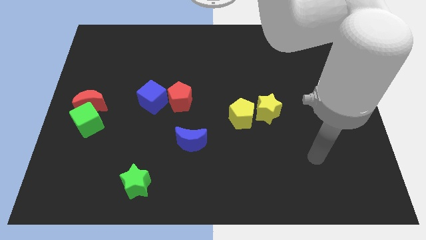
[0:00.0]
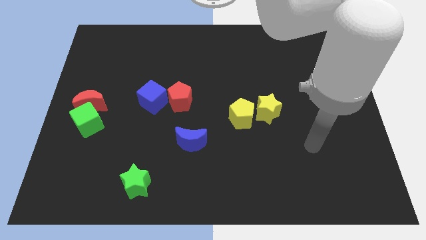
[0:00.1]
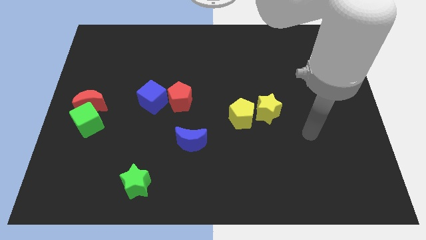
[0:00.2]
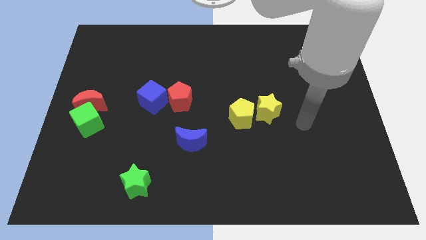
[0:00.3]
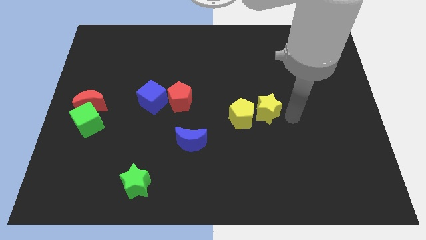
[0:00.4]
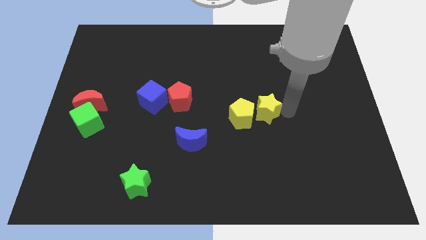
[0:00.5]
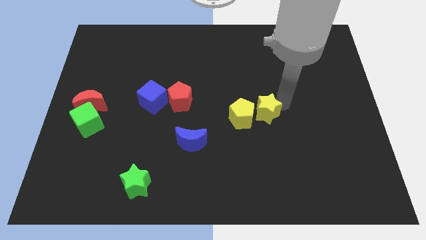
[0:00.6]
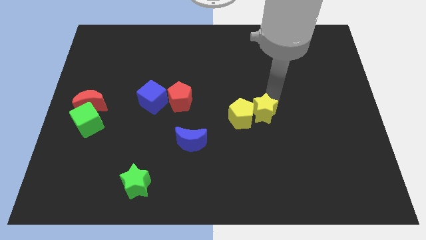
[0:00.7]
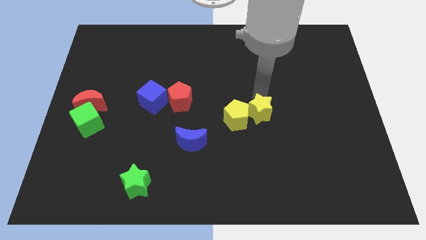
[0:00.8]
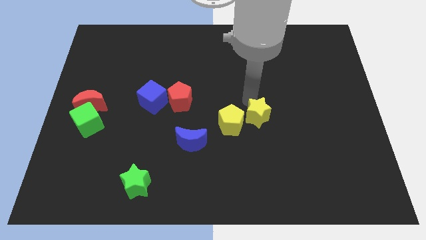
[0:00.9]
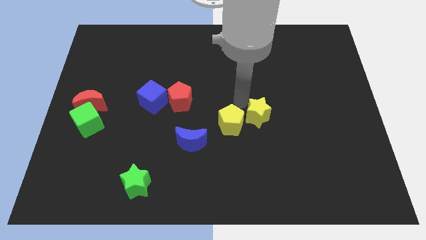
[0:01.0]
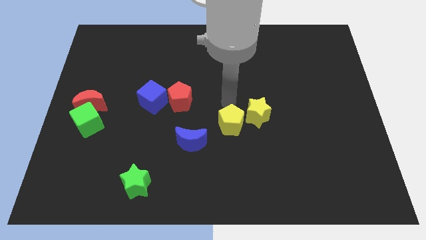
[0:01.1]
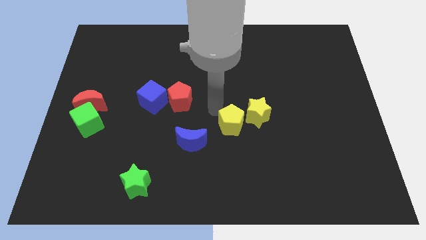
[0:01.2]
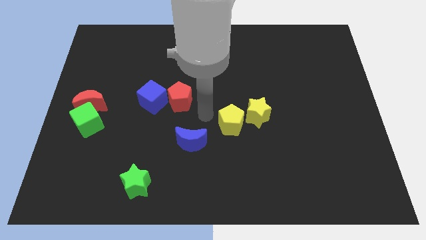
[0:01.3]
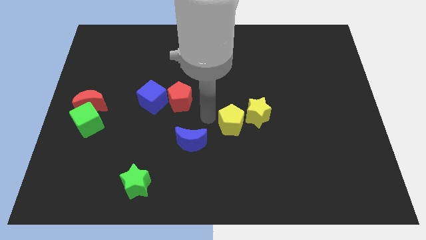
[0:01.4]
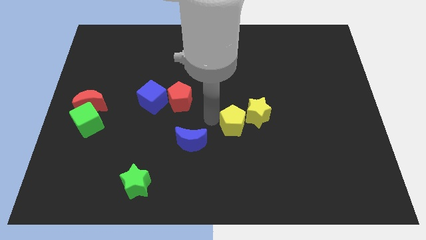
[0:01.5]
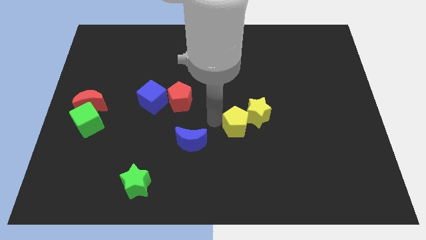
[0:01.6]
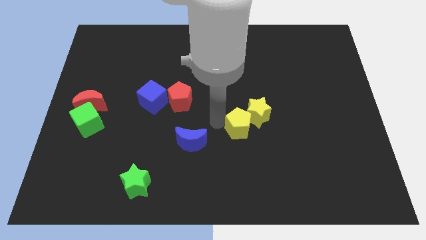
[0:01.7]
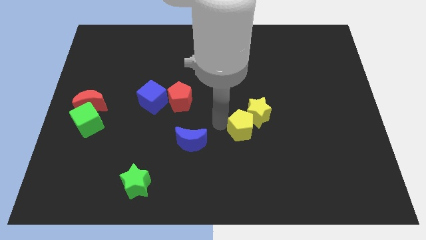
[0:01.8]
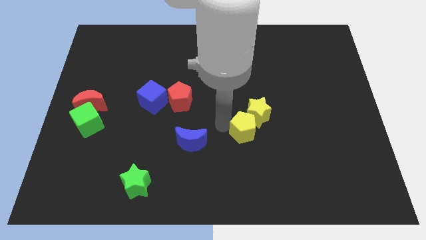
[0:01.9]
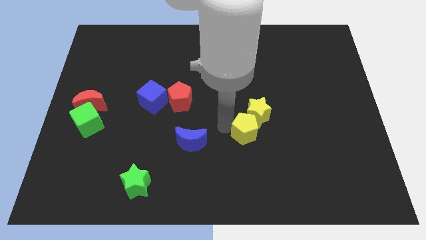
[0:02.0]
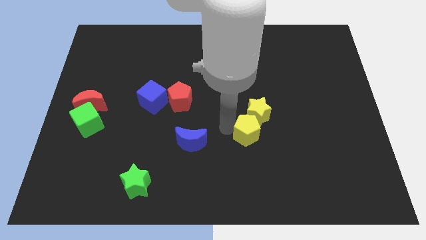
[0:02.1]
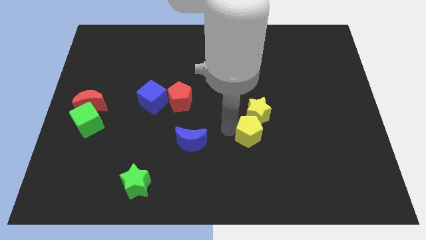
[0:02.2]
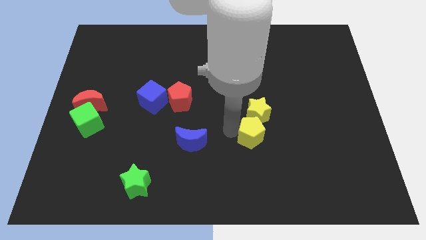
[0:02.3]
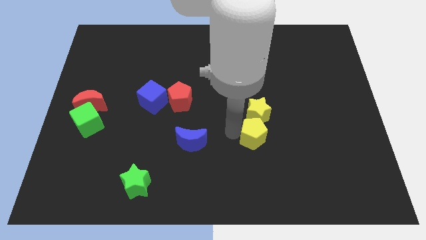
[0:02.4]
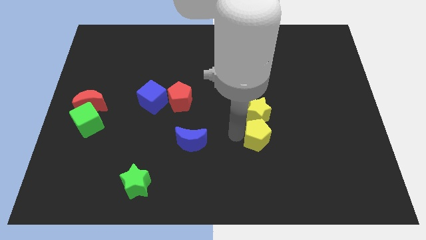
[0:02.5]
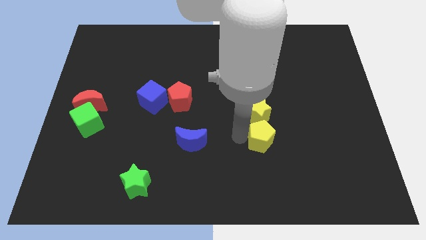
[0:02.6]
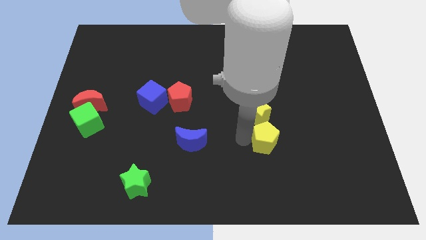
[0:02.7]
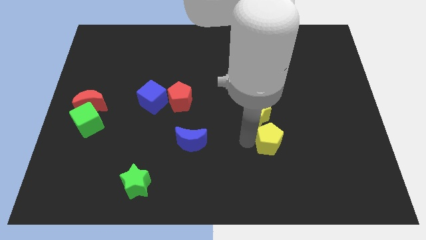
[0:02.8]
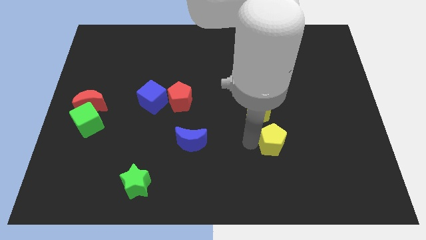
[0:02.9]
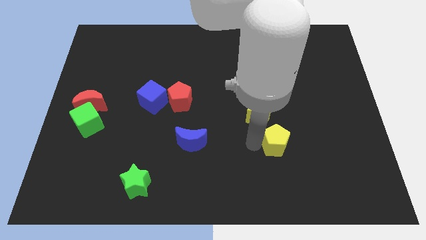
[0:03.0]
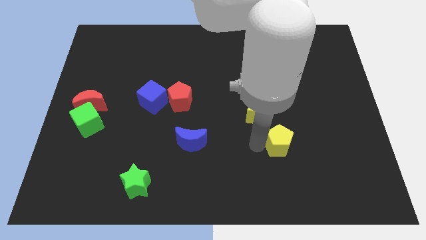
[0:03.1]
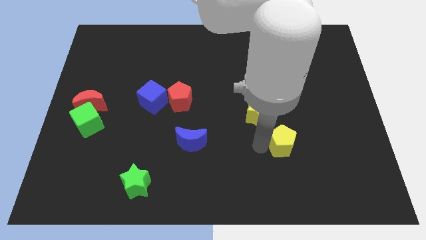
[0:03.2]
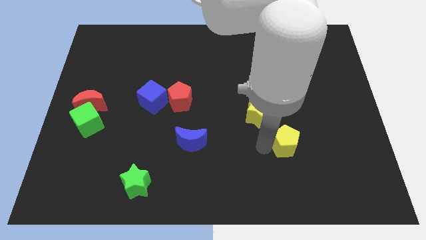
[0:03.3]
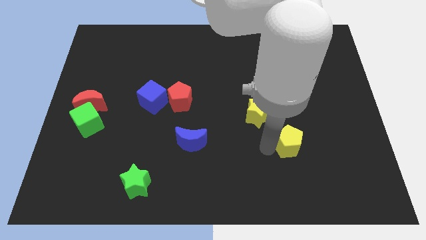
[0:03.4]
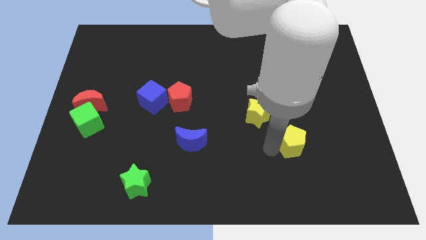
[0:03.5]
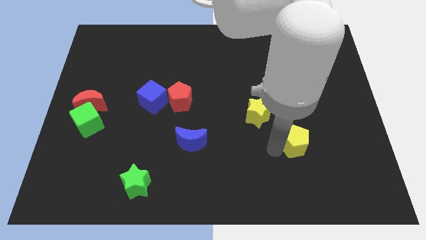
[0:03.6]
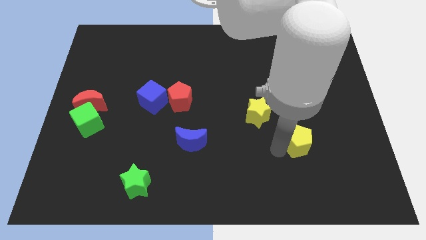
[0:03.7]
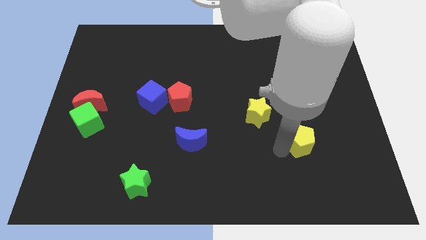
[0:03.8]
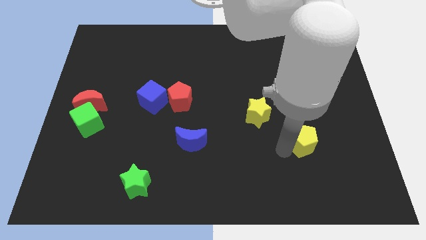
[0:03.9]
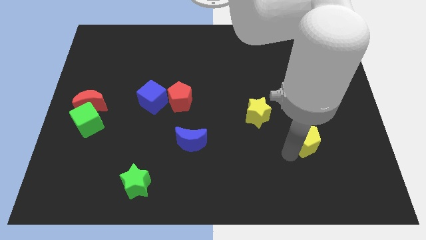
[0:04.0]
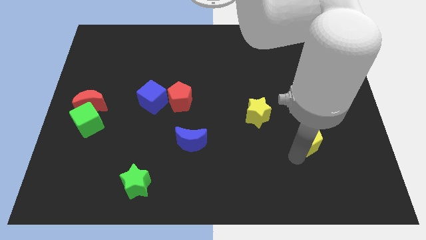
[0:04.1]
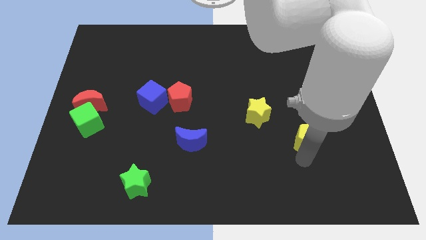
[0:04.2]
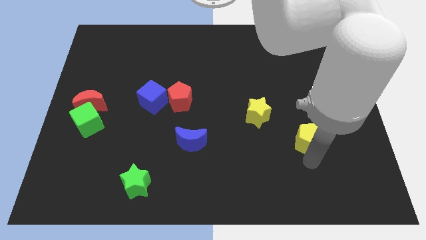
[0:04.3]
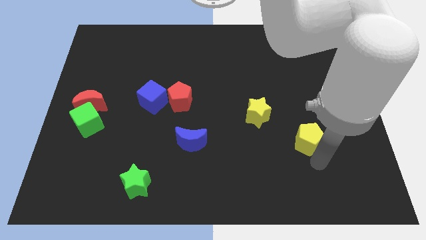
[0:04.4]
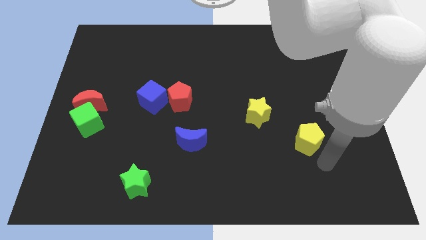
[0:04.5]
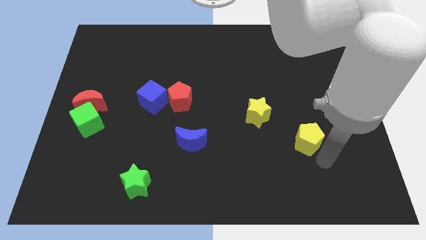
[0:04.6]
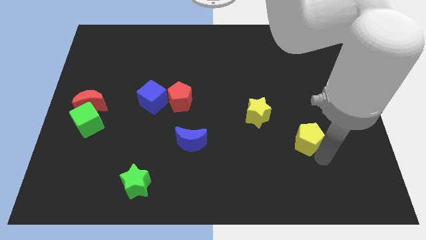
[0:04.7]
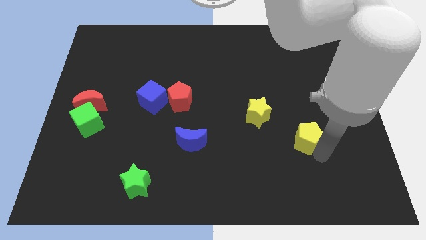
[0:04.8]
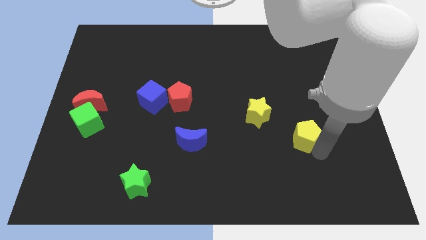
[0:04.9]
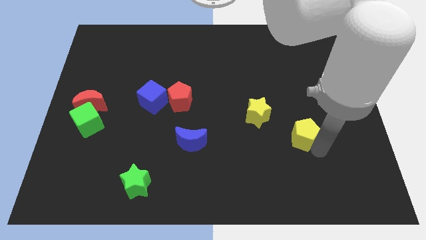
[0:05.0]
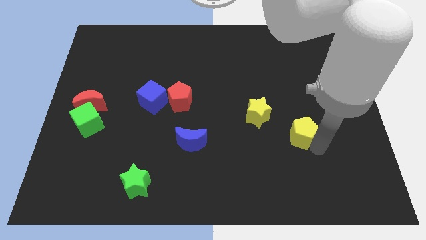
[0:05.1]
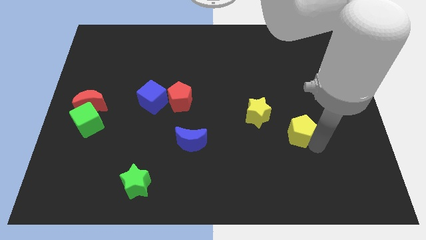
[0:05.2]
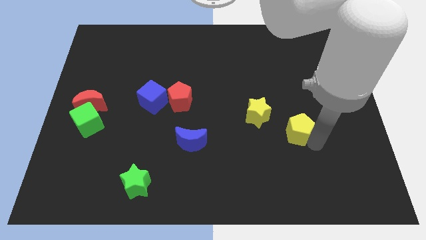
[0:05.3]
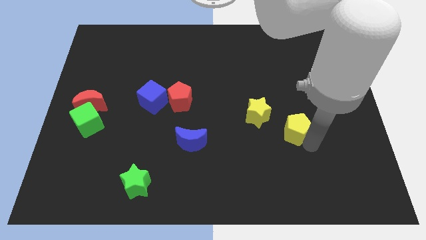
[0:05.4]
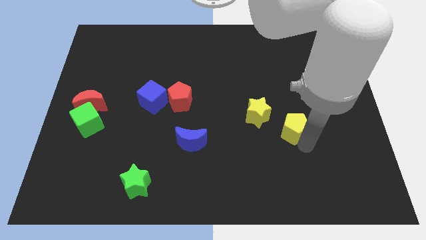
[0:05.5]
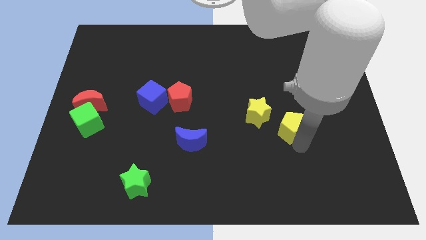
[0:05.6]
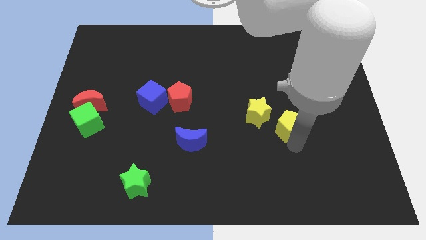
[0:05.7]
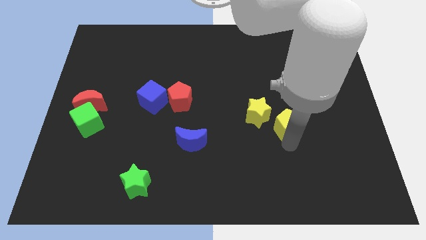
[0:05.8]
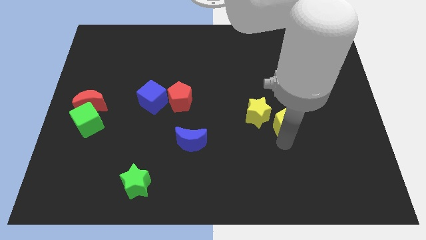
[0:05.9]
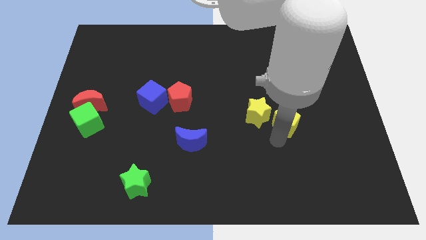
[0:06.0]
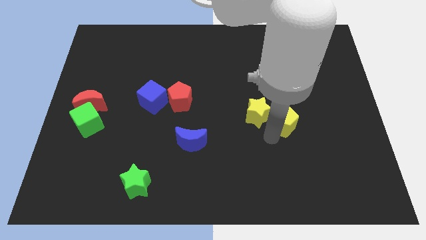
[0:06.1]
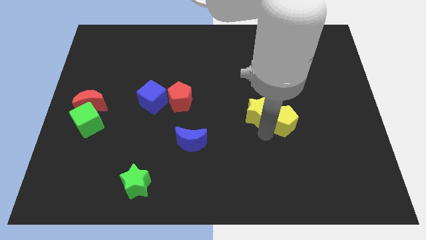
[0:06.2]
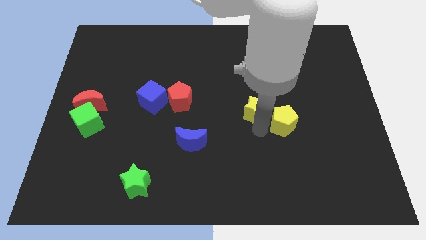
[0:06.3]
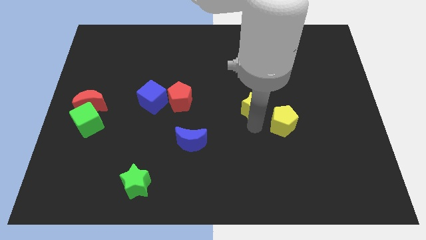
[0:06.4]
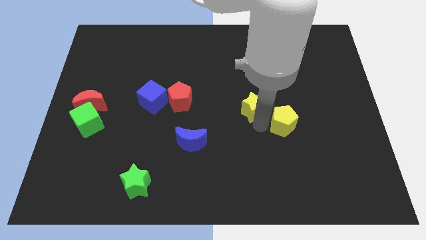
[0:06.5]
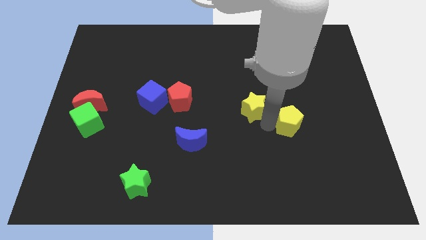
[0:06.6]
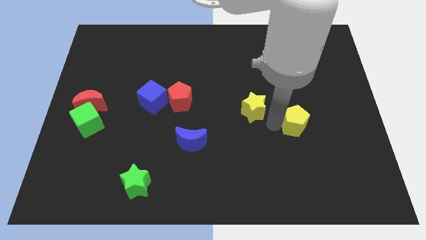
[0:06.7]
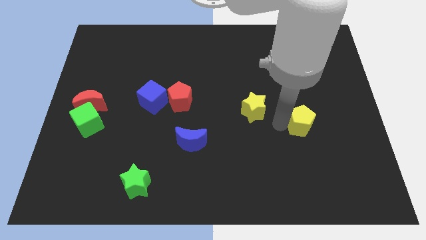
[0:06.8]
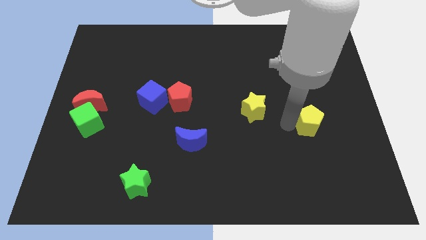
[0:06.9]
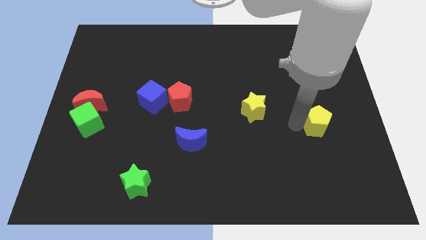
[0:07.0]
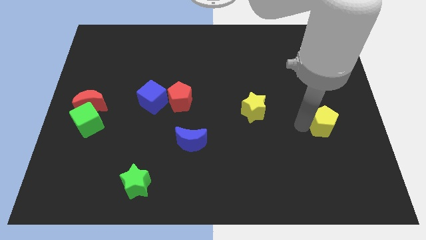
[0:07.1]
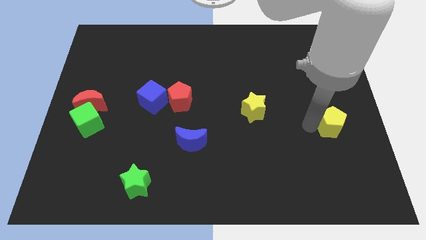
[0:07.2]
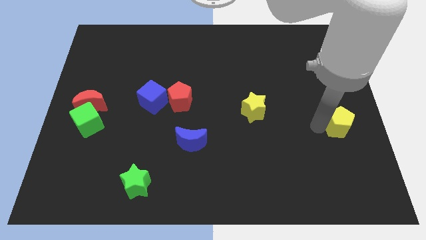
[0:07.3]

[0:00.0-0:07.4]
put the yellow pentagon to the right side
